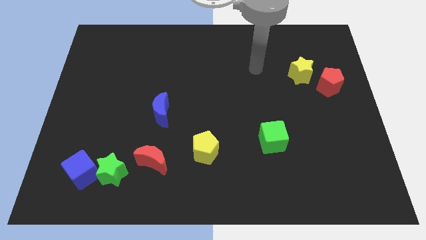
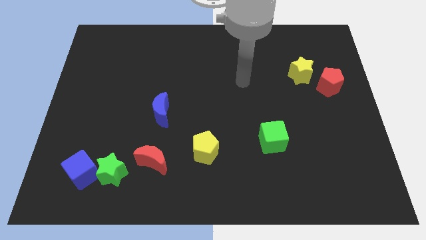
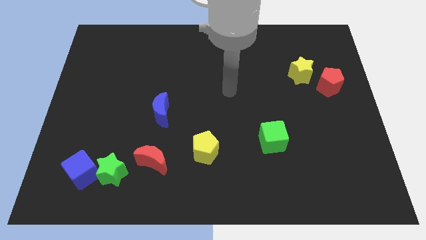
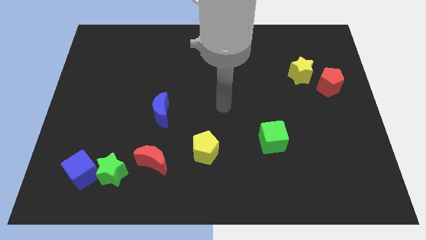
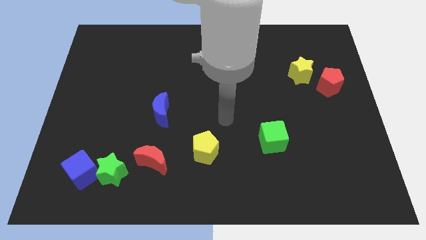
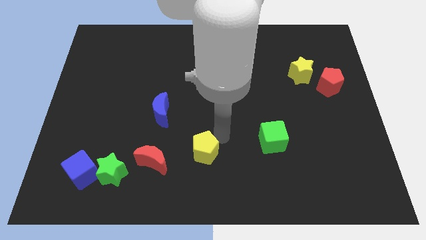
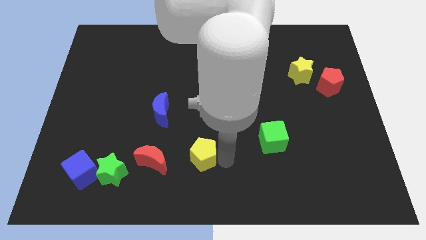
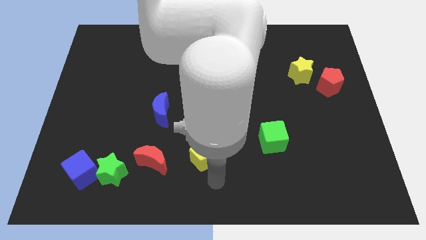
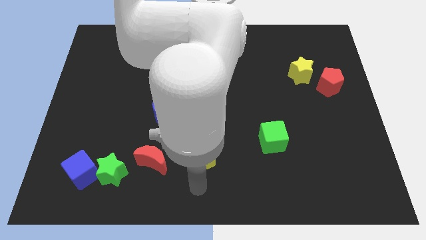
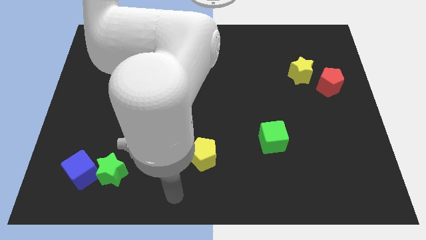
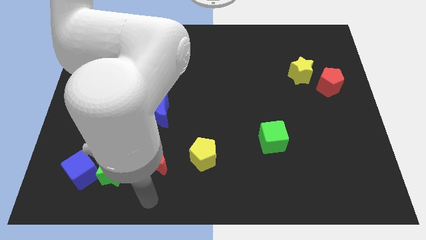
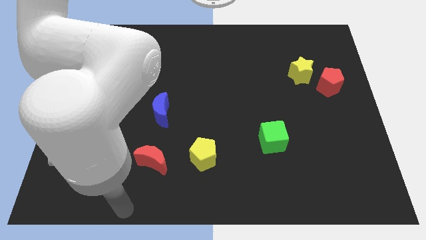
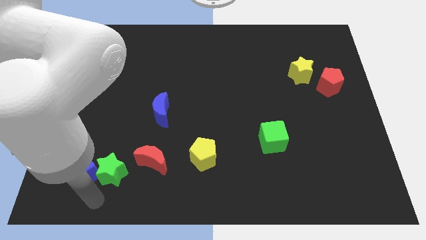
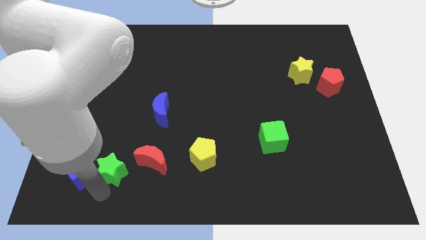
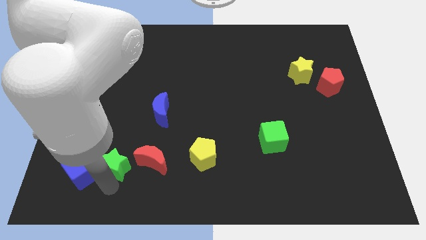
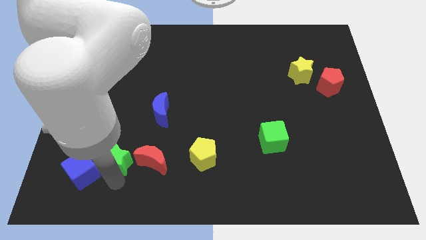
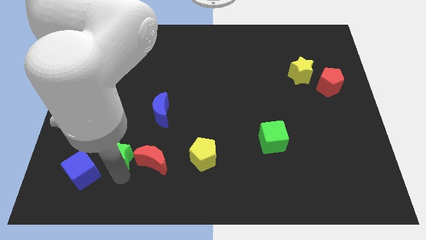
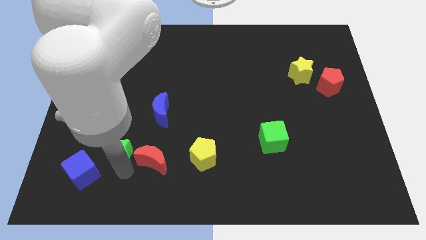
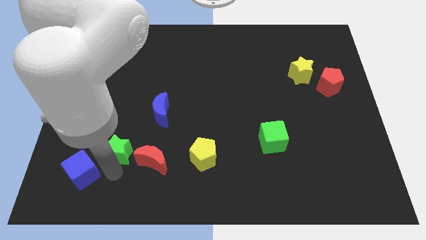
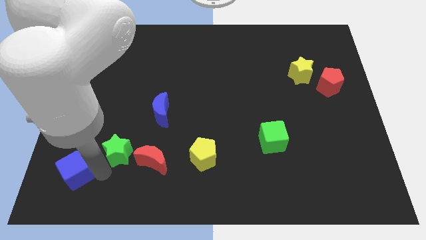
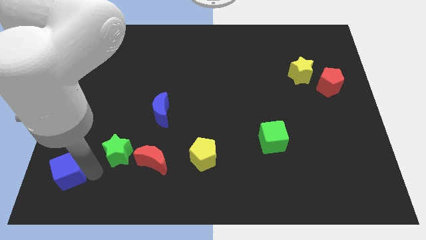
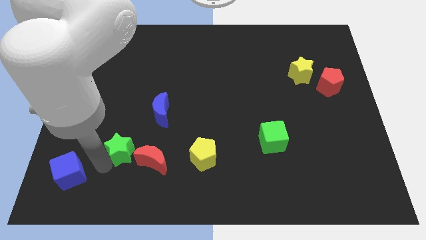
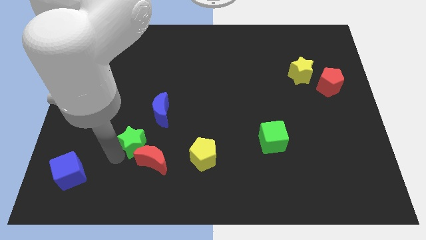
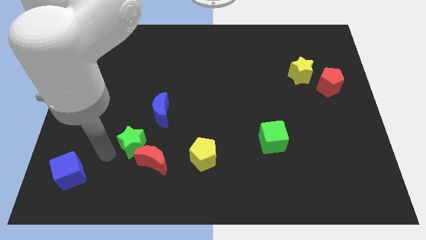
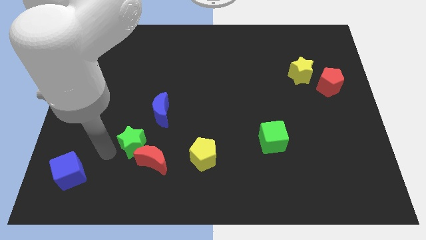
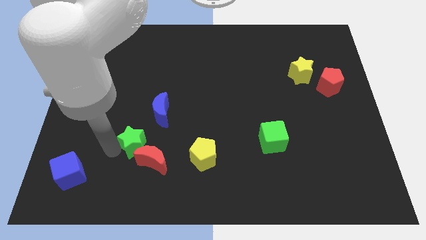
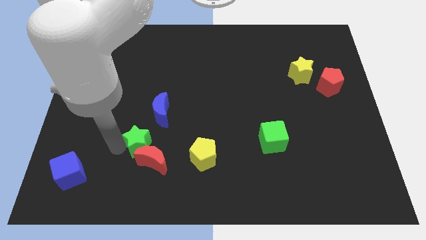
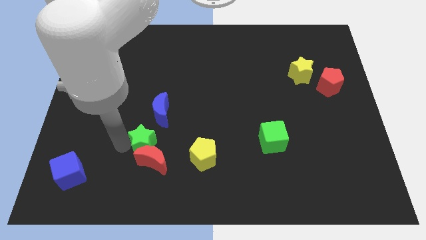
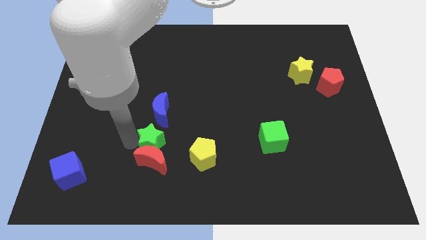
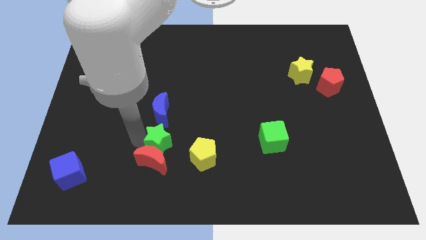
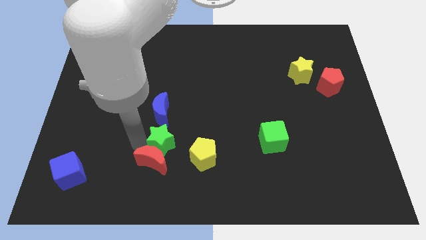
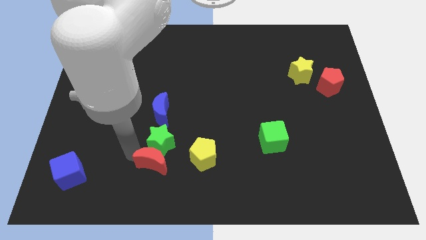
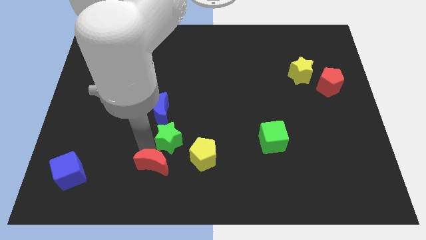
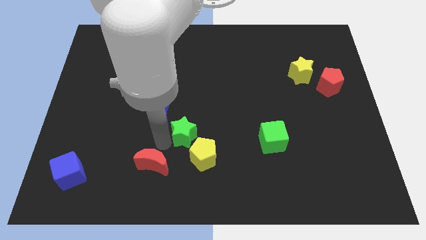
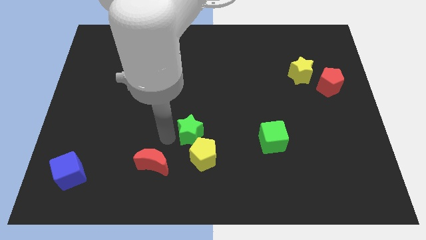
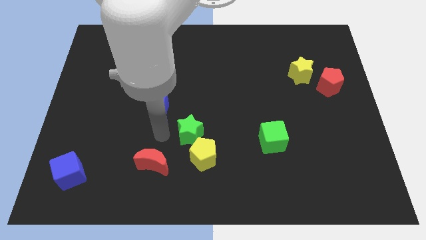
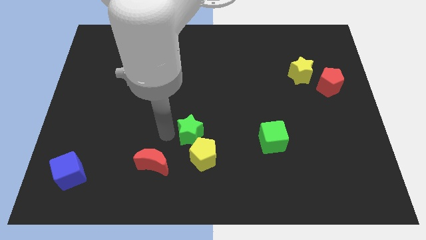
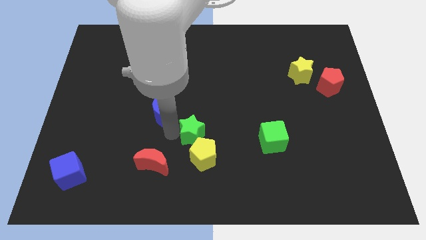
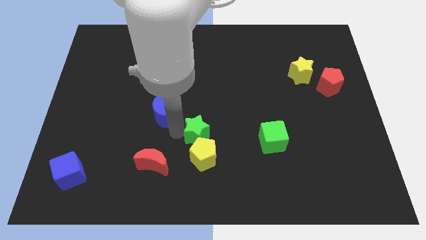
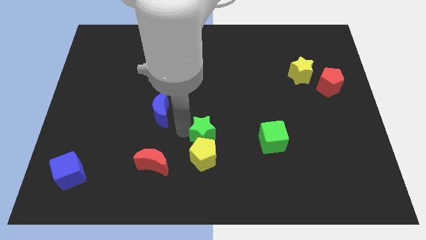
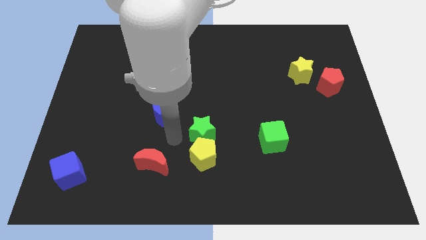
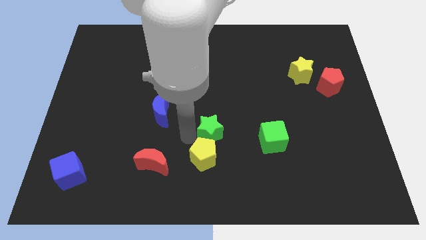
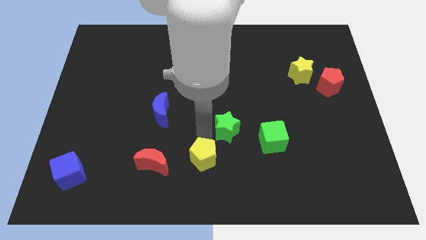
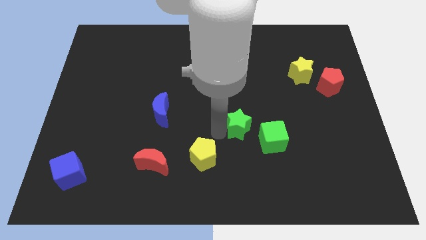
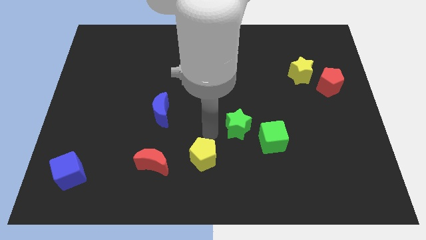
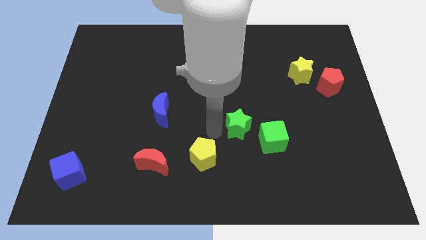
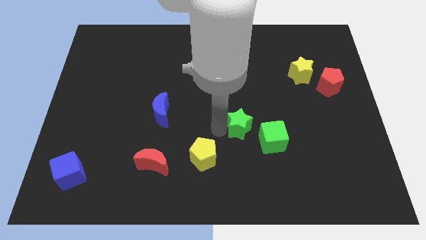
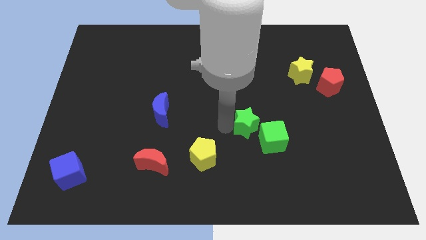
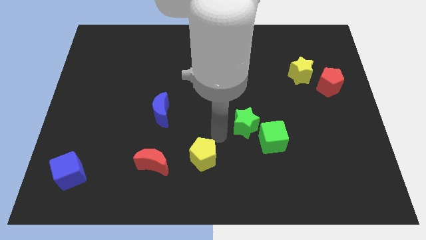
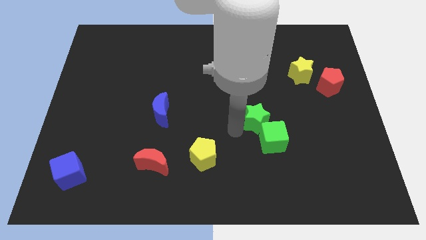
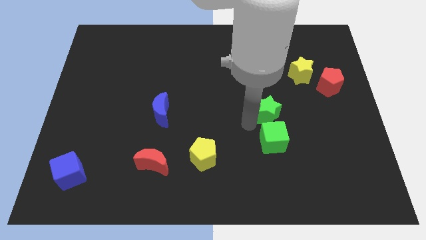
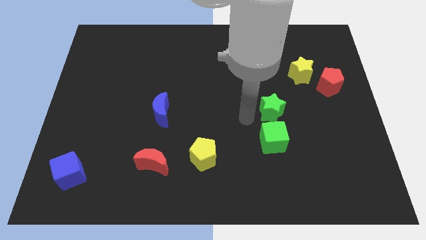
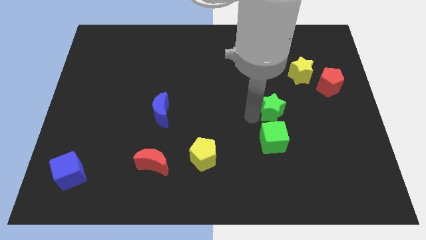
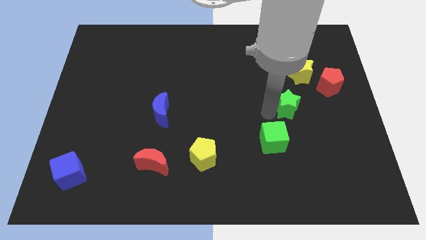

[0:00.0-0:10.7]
slide the green star below the yellow star
